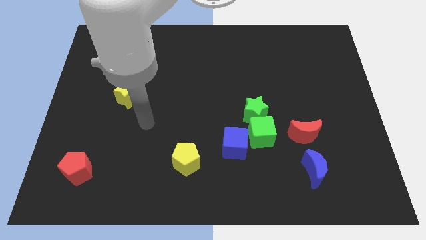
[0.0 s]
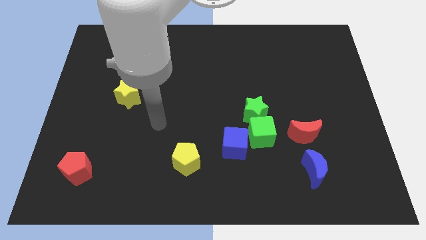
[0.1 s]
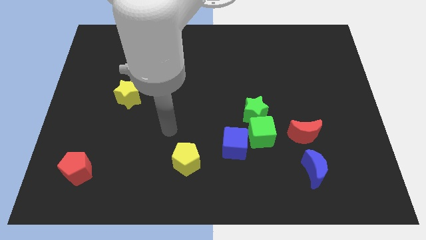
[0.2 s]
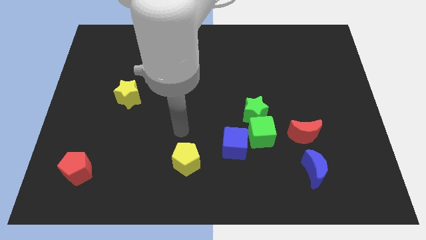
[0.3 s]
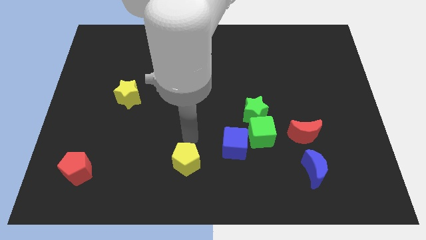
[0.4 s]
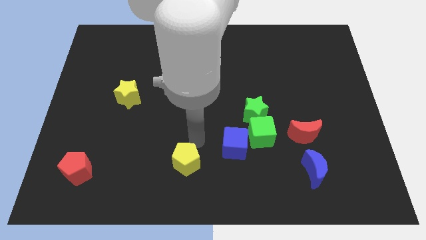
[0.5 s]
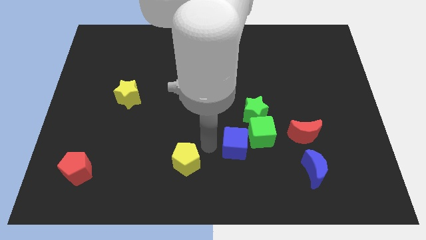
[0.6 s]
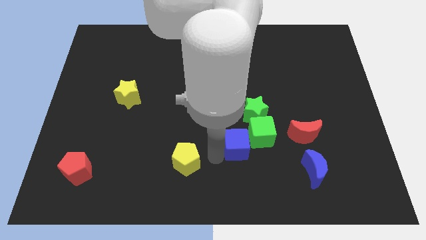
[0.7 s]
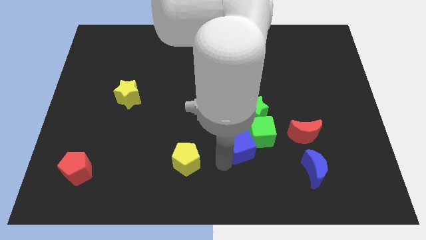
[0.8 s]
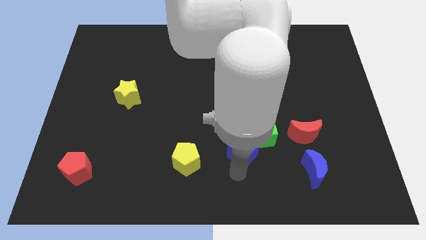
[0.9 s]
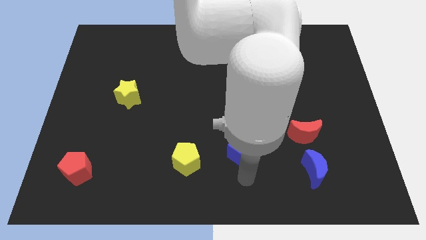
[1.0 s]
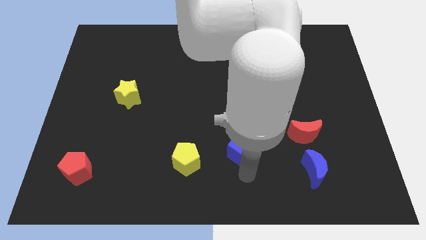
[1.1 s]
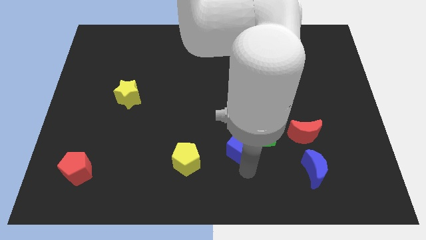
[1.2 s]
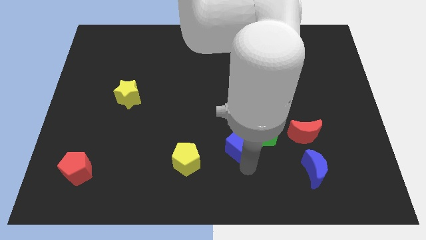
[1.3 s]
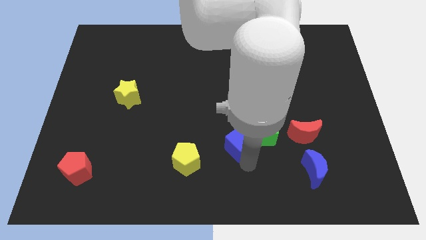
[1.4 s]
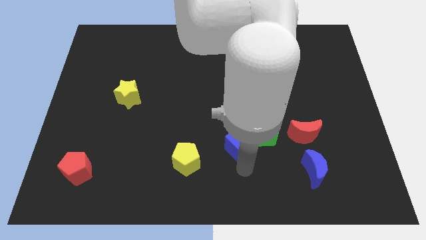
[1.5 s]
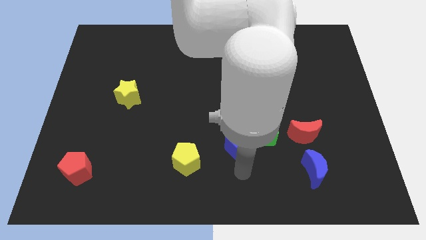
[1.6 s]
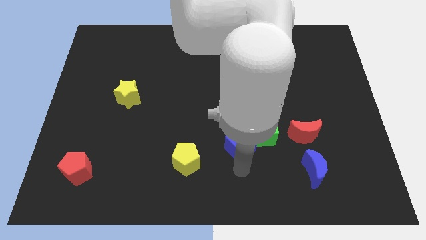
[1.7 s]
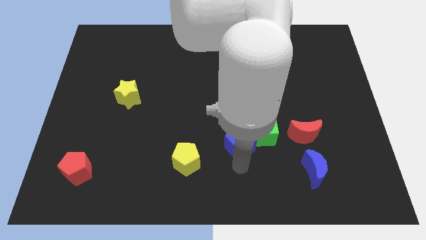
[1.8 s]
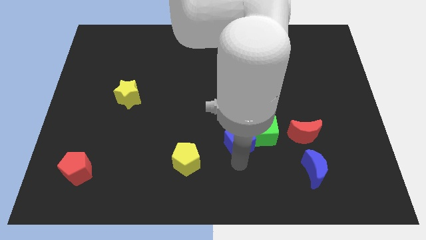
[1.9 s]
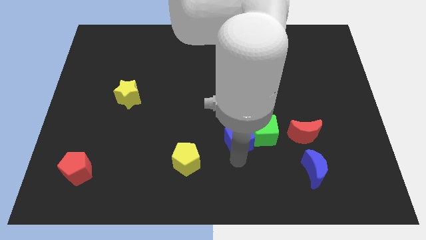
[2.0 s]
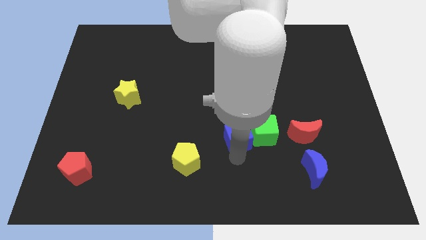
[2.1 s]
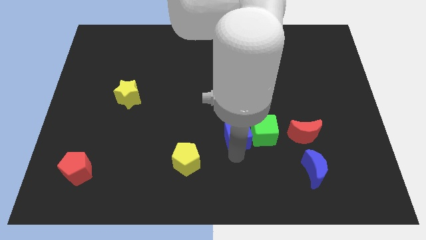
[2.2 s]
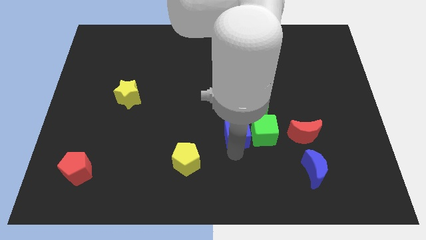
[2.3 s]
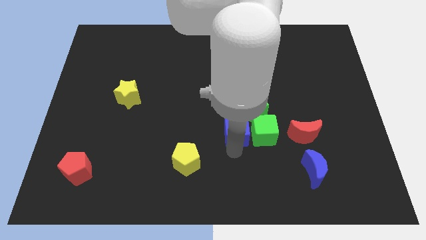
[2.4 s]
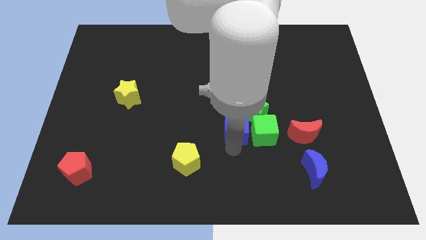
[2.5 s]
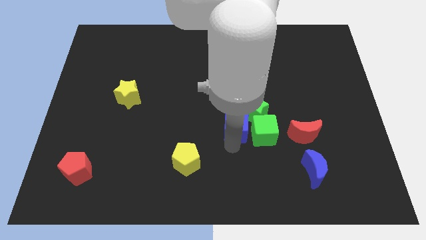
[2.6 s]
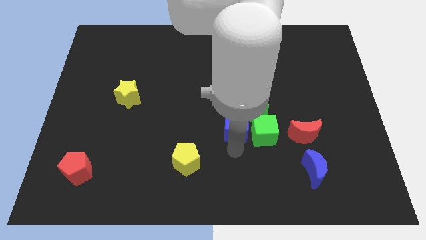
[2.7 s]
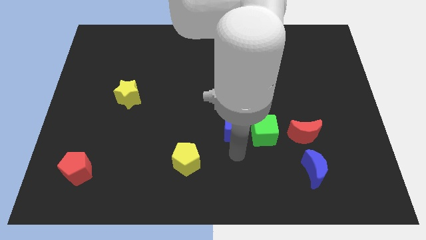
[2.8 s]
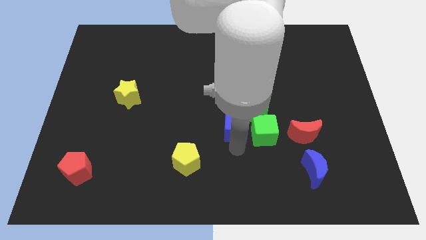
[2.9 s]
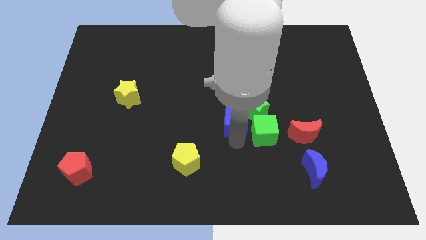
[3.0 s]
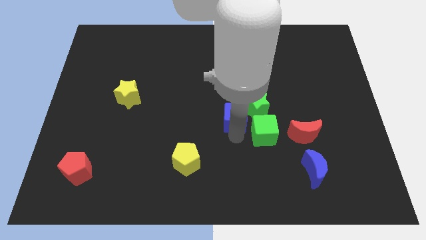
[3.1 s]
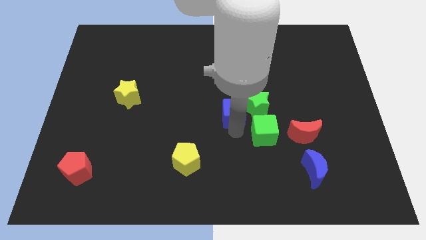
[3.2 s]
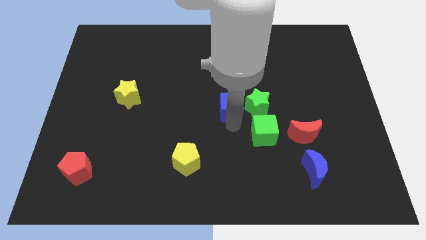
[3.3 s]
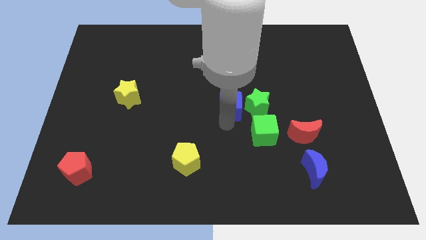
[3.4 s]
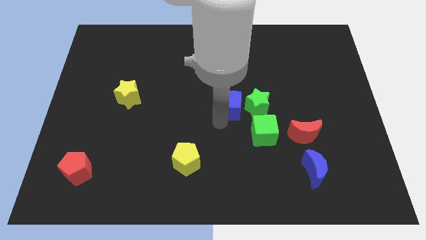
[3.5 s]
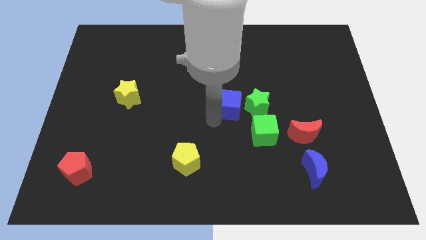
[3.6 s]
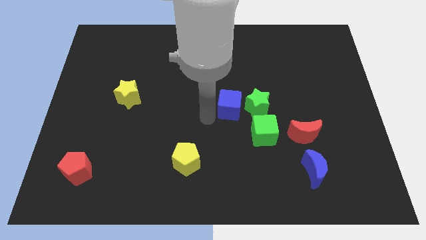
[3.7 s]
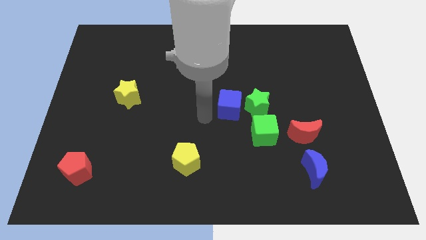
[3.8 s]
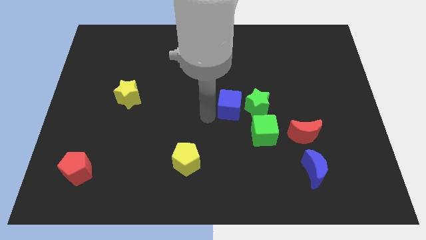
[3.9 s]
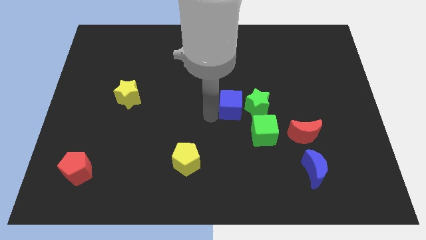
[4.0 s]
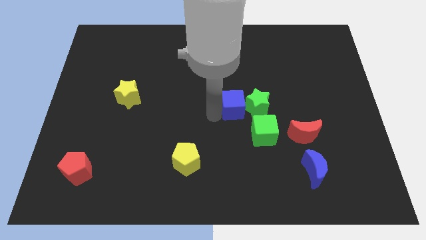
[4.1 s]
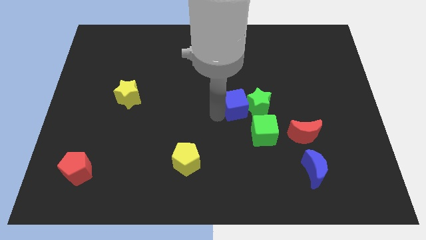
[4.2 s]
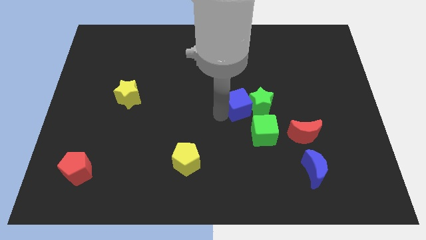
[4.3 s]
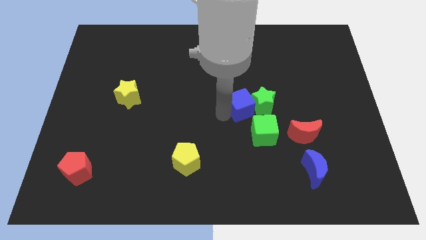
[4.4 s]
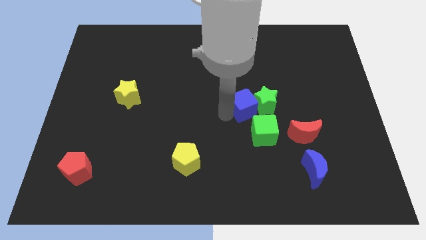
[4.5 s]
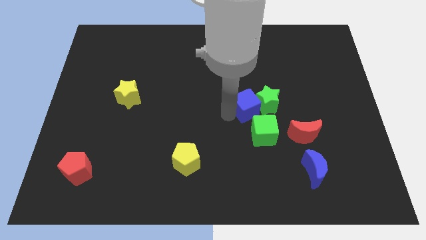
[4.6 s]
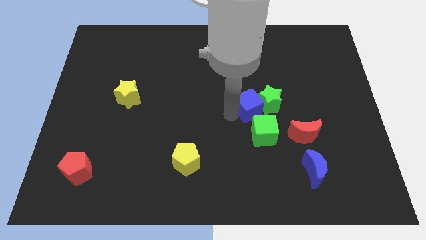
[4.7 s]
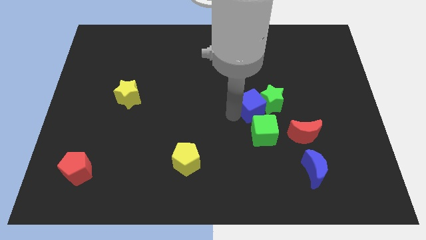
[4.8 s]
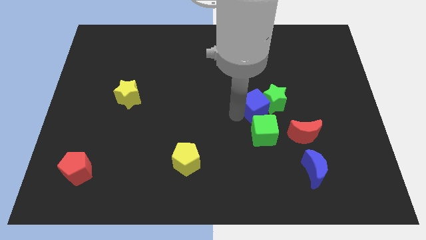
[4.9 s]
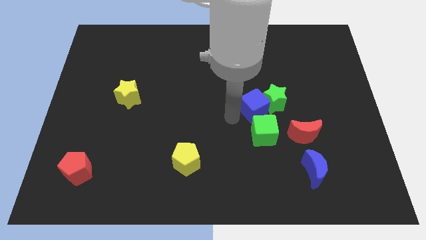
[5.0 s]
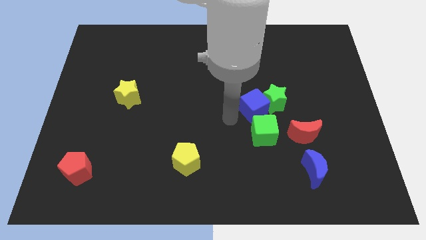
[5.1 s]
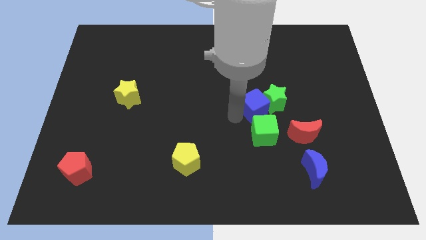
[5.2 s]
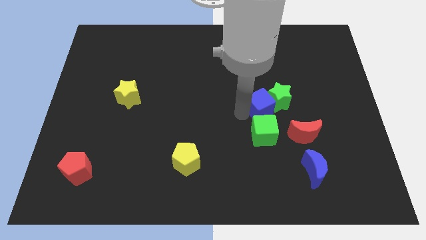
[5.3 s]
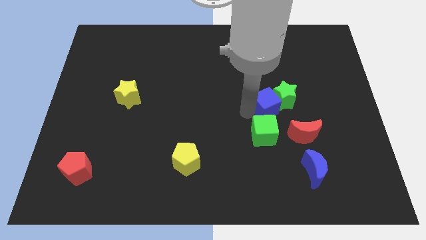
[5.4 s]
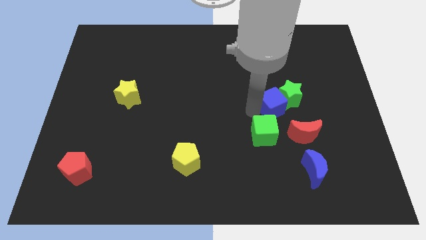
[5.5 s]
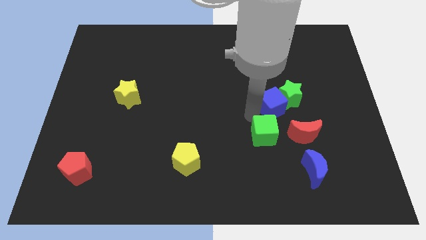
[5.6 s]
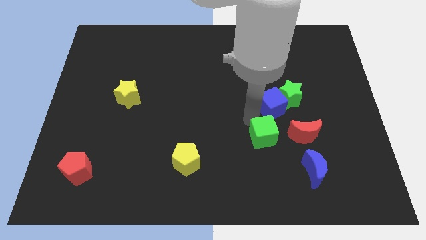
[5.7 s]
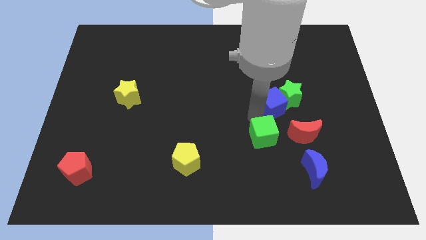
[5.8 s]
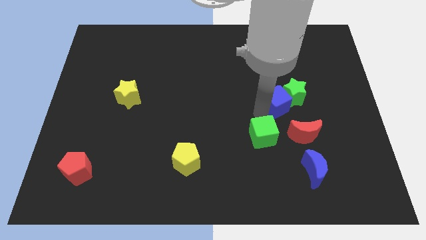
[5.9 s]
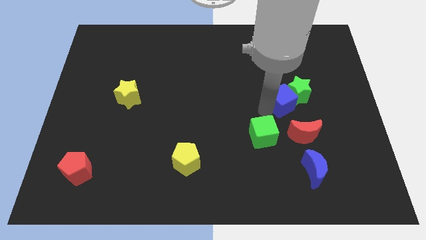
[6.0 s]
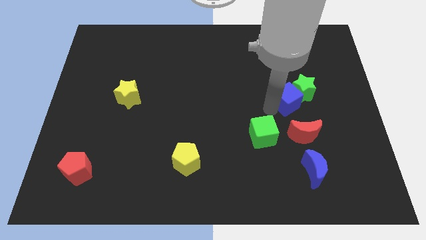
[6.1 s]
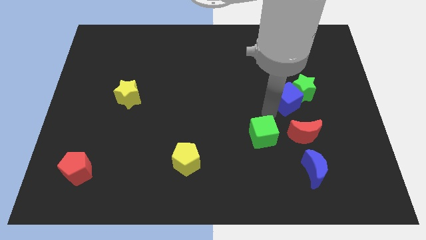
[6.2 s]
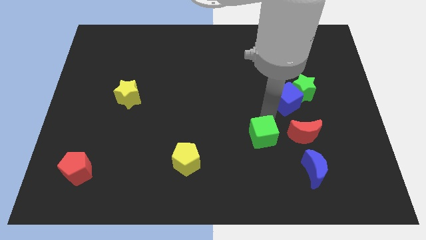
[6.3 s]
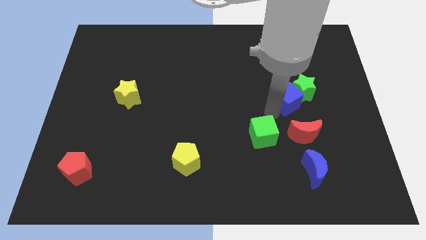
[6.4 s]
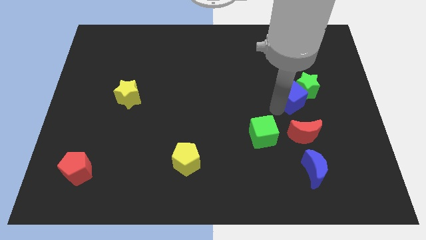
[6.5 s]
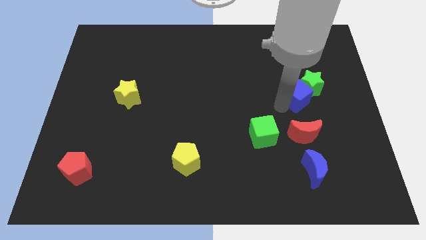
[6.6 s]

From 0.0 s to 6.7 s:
slide the blue cube up and right

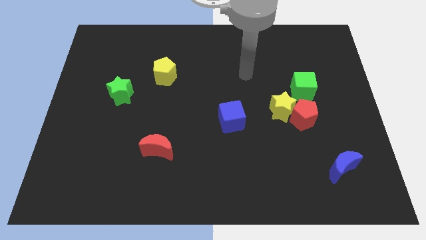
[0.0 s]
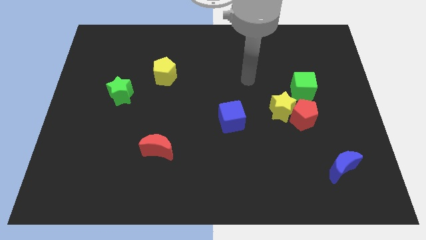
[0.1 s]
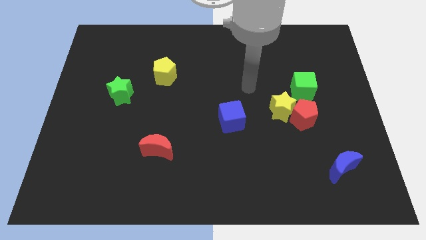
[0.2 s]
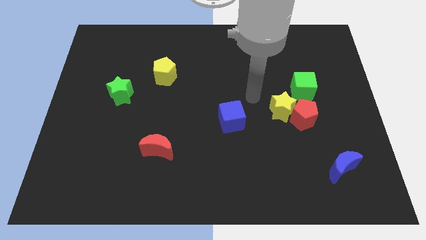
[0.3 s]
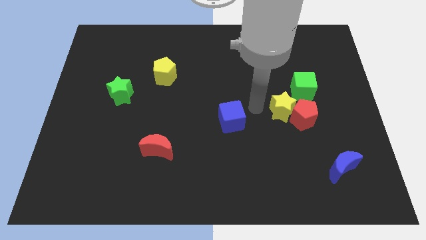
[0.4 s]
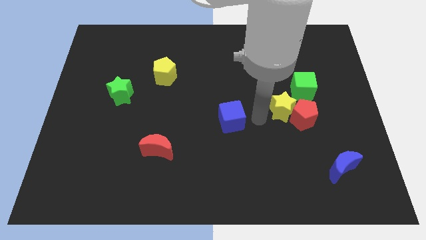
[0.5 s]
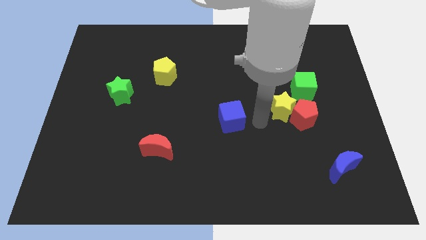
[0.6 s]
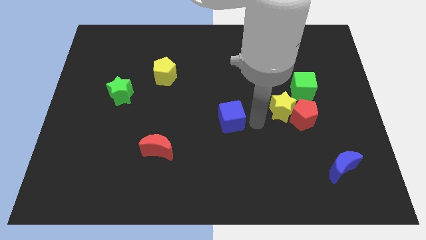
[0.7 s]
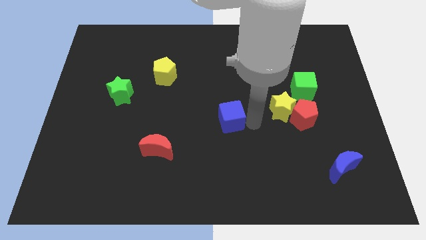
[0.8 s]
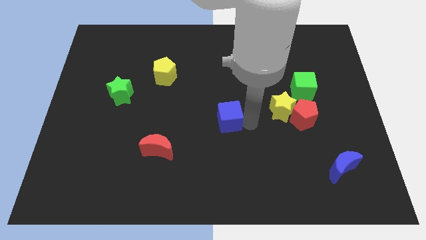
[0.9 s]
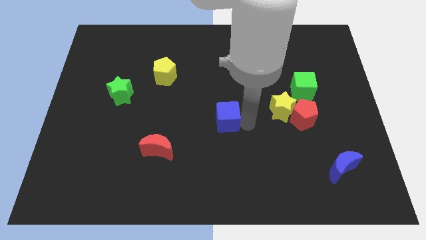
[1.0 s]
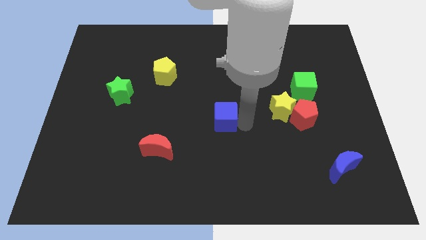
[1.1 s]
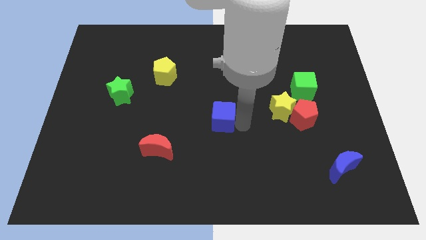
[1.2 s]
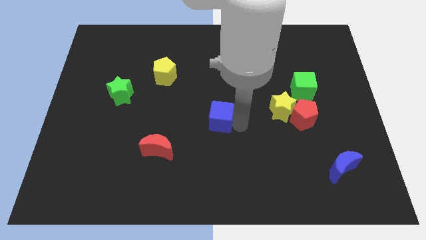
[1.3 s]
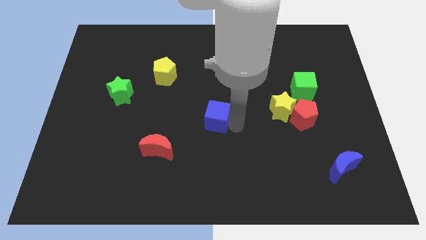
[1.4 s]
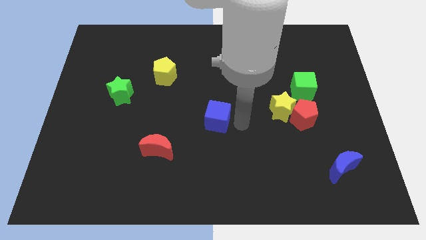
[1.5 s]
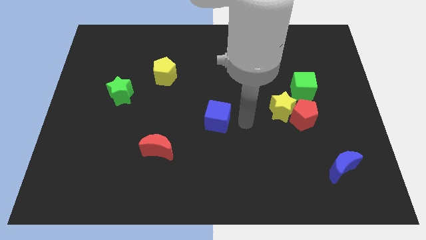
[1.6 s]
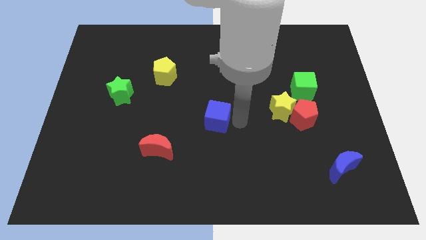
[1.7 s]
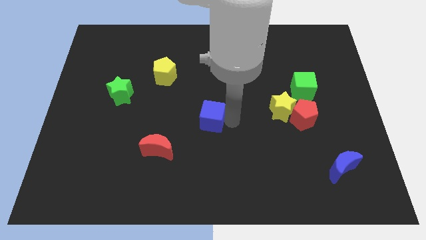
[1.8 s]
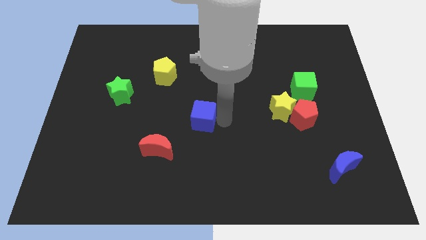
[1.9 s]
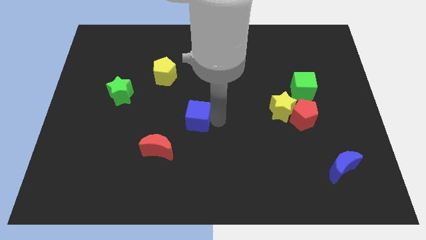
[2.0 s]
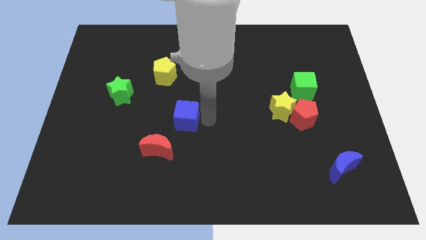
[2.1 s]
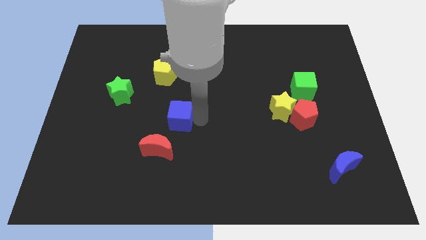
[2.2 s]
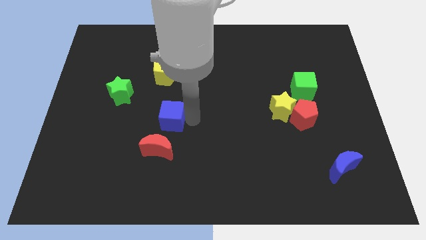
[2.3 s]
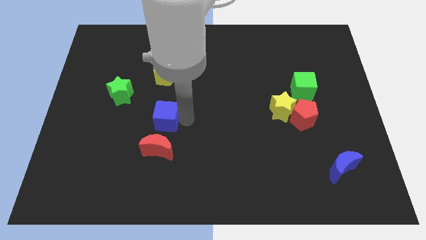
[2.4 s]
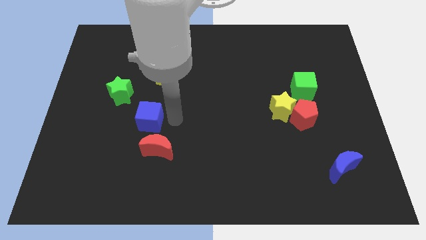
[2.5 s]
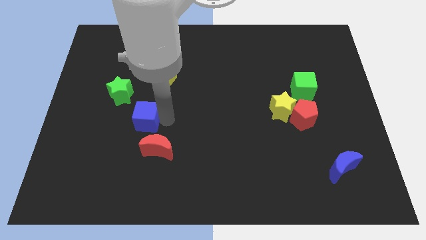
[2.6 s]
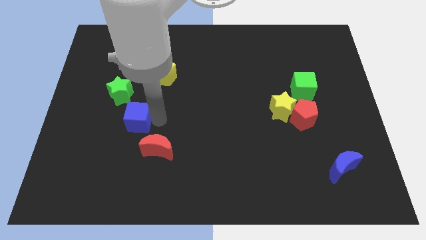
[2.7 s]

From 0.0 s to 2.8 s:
push the blue cube to the left
